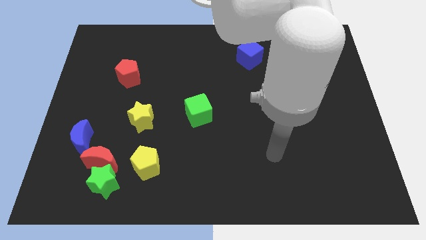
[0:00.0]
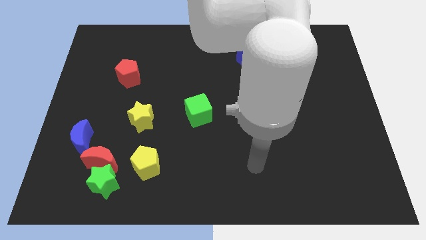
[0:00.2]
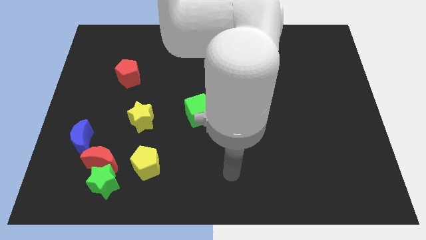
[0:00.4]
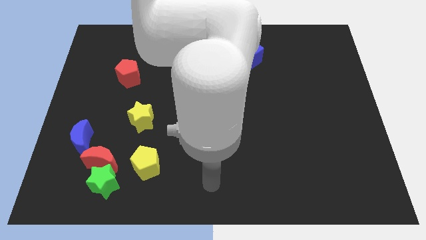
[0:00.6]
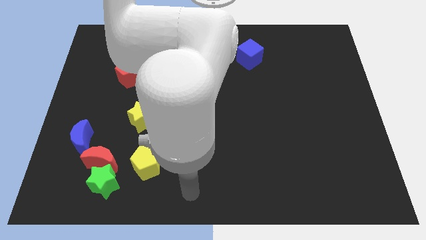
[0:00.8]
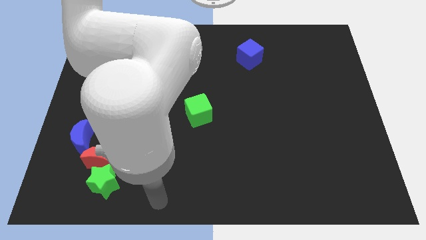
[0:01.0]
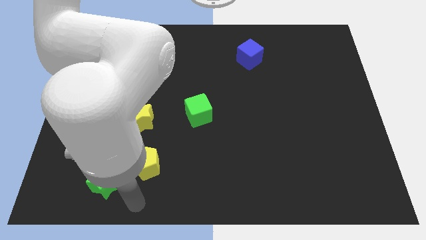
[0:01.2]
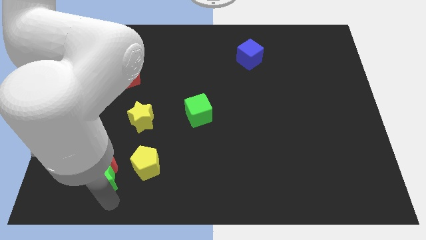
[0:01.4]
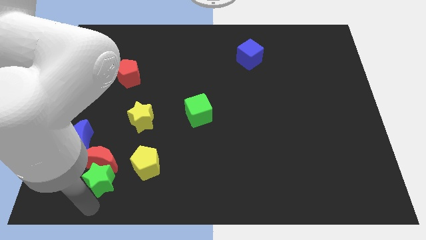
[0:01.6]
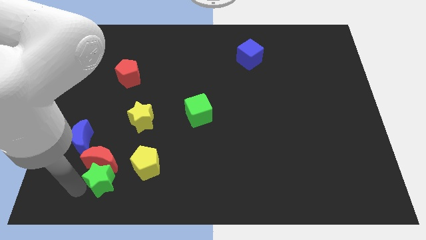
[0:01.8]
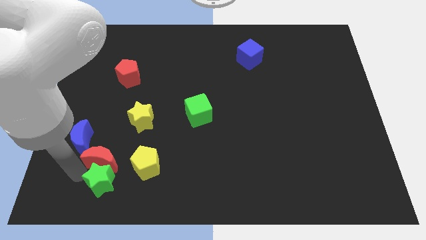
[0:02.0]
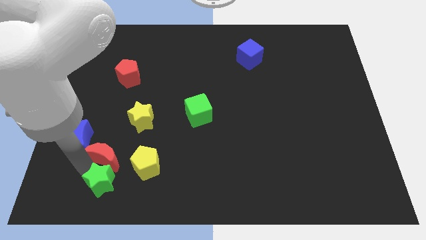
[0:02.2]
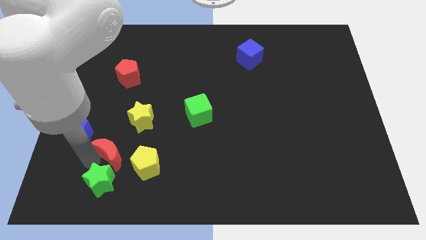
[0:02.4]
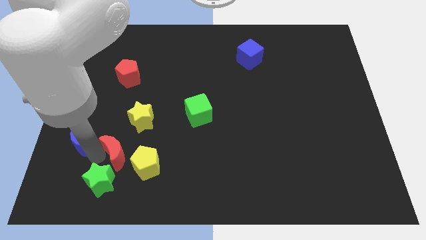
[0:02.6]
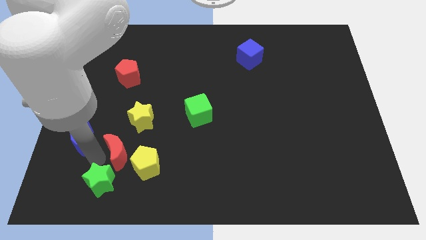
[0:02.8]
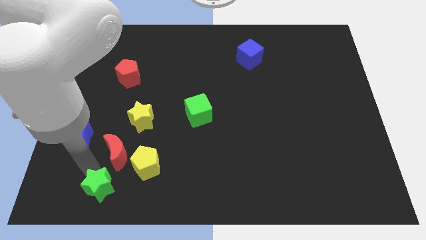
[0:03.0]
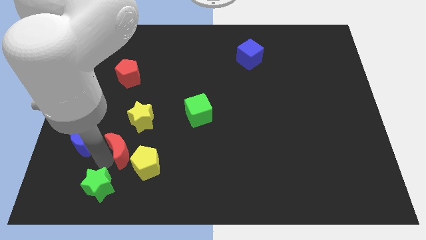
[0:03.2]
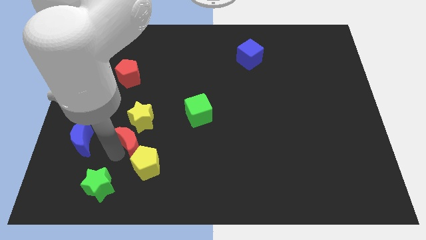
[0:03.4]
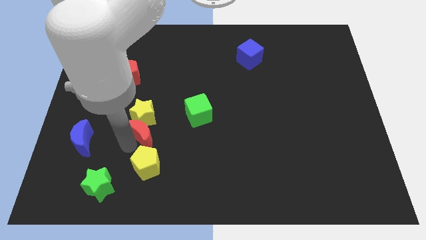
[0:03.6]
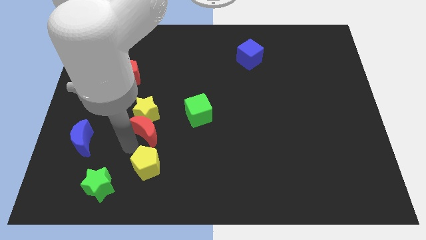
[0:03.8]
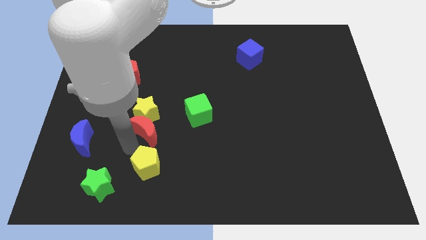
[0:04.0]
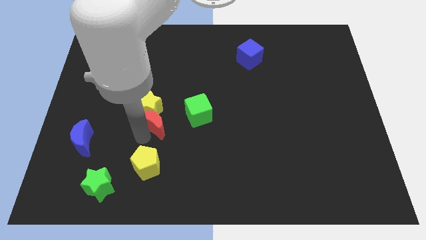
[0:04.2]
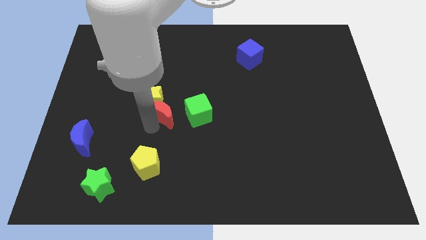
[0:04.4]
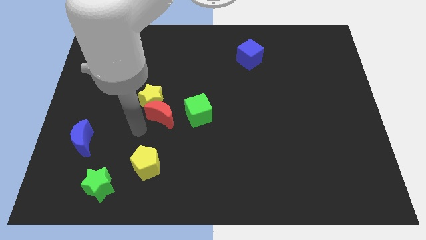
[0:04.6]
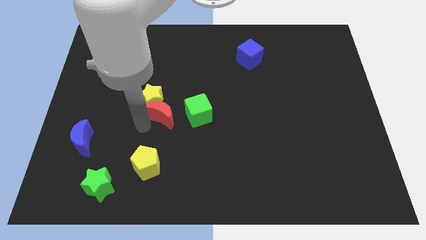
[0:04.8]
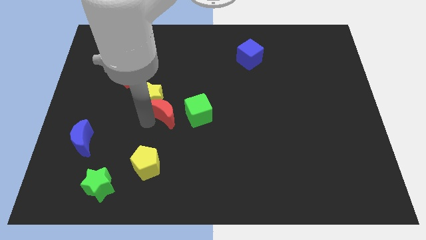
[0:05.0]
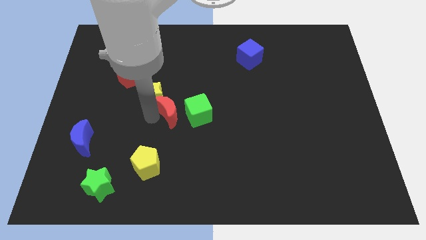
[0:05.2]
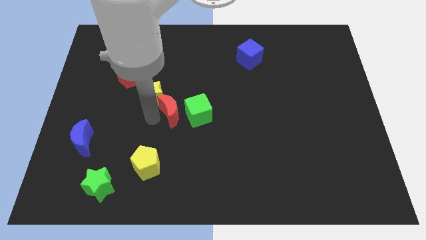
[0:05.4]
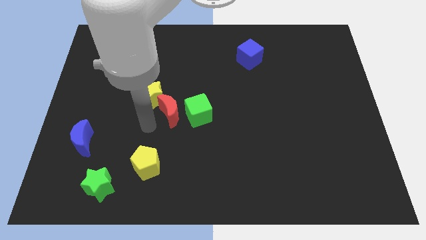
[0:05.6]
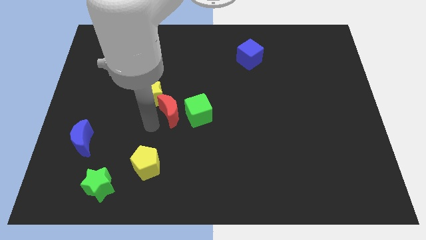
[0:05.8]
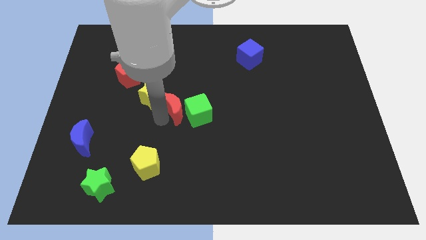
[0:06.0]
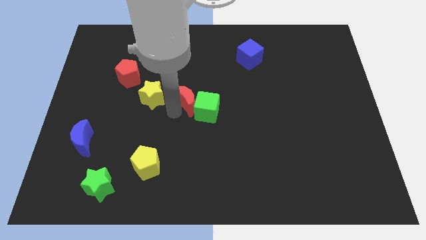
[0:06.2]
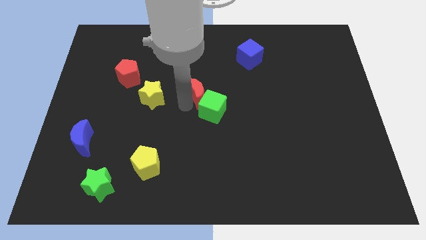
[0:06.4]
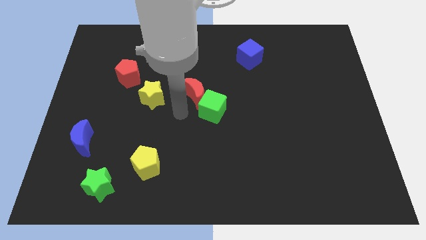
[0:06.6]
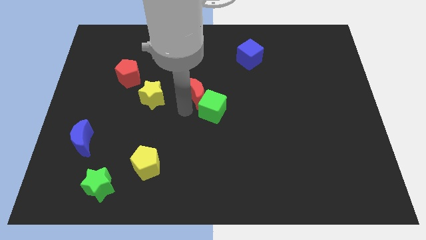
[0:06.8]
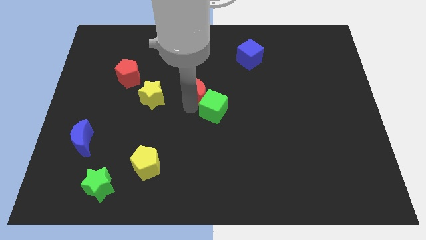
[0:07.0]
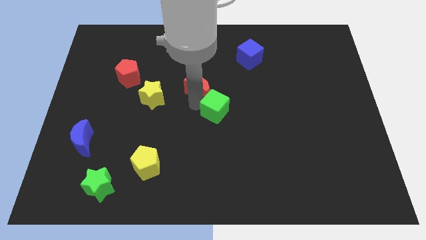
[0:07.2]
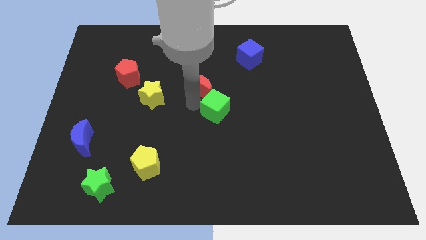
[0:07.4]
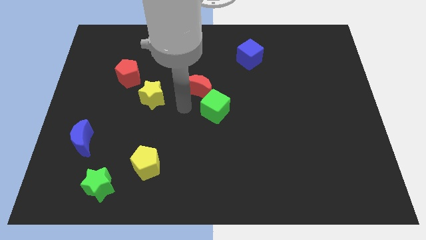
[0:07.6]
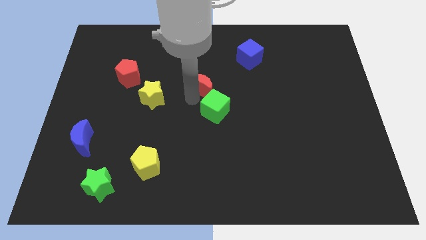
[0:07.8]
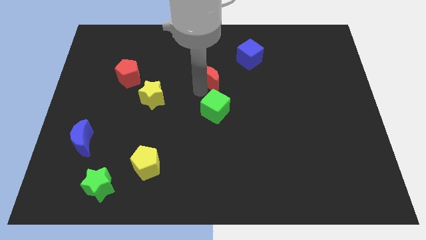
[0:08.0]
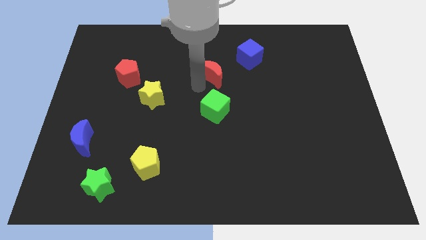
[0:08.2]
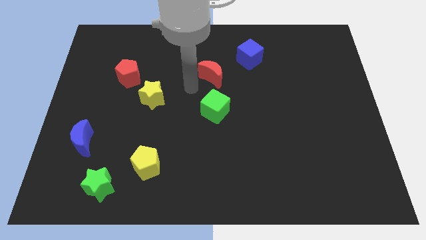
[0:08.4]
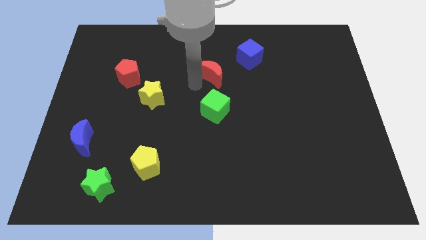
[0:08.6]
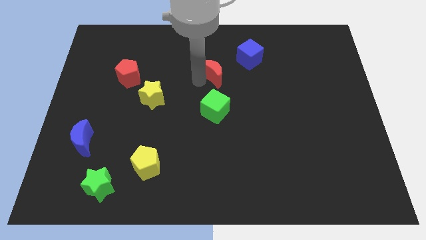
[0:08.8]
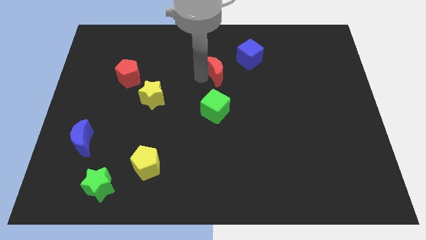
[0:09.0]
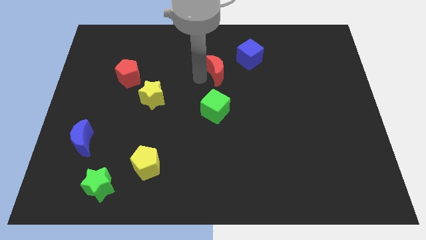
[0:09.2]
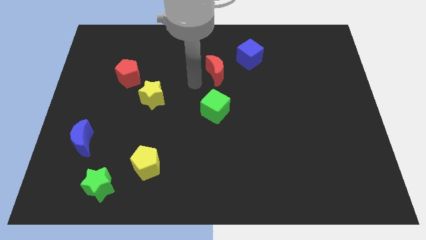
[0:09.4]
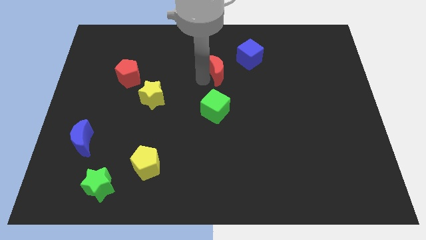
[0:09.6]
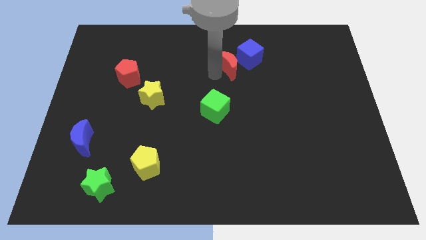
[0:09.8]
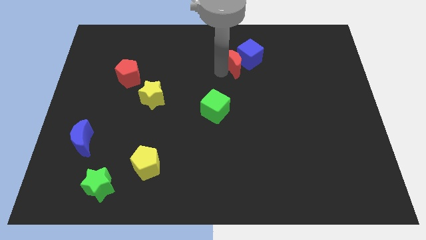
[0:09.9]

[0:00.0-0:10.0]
push the red moon next to the blue cube

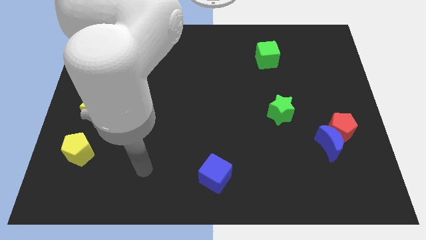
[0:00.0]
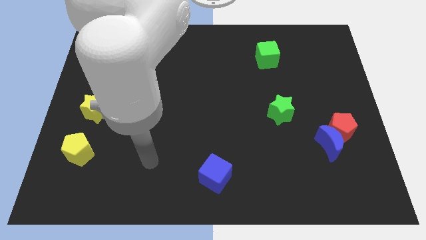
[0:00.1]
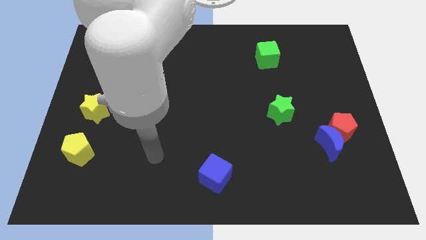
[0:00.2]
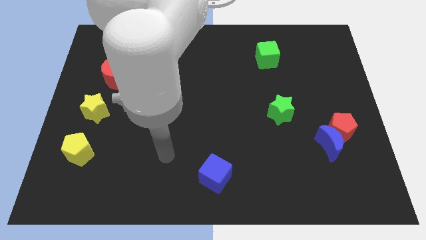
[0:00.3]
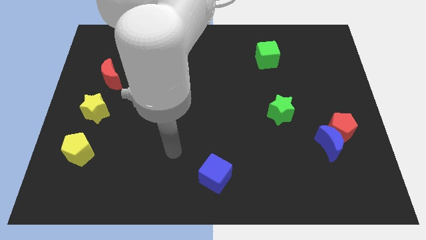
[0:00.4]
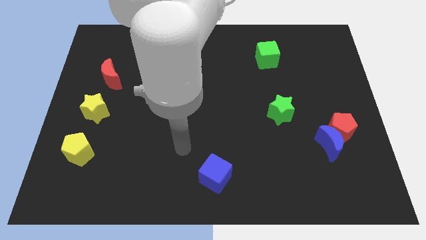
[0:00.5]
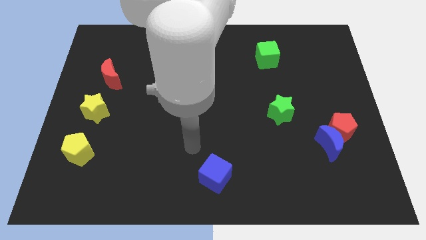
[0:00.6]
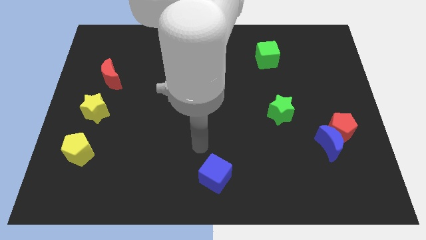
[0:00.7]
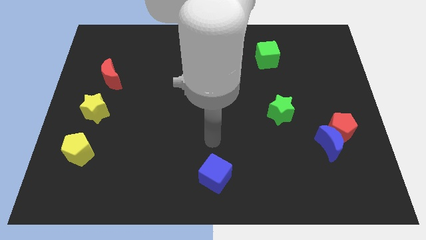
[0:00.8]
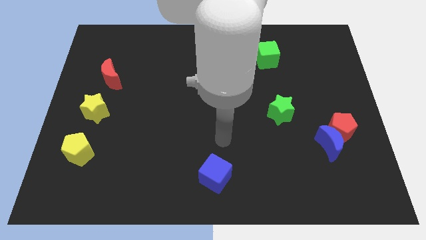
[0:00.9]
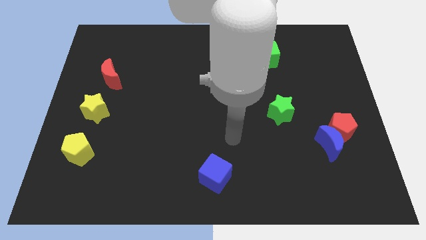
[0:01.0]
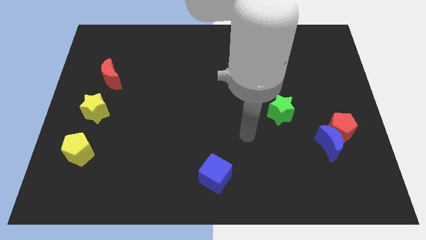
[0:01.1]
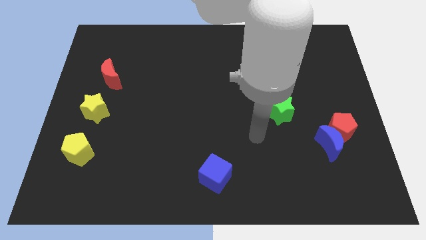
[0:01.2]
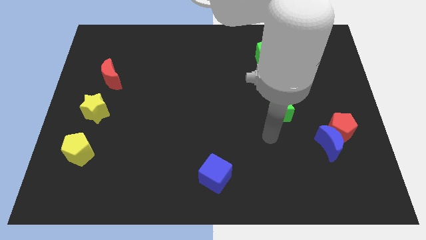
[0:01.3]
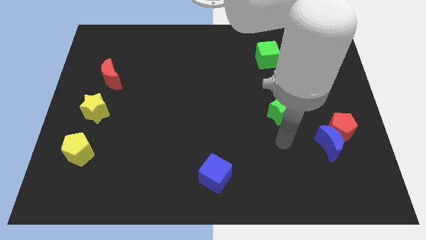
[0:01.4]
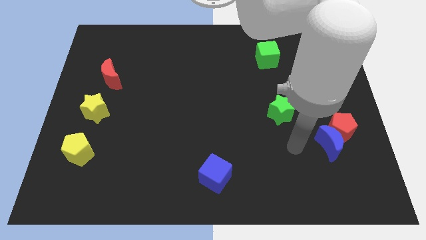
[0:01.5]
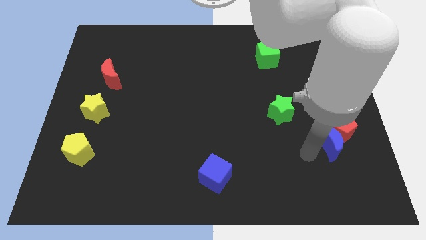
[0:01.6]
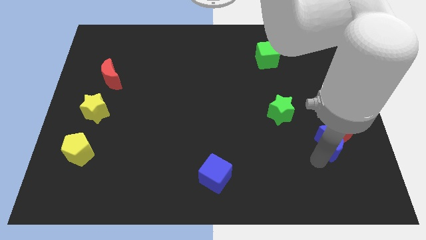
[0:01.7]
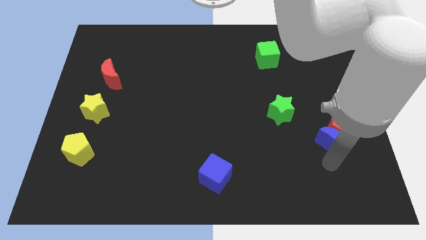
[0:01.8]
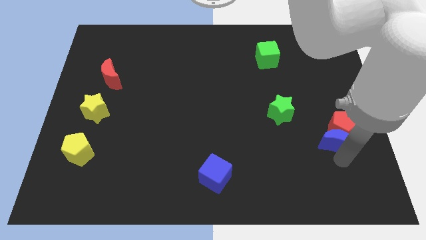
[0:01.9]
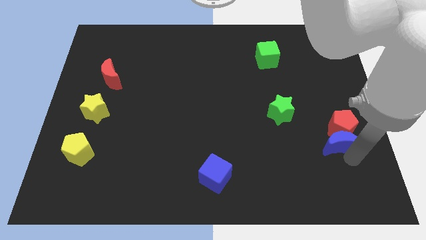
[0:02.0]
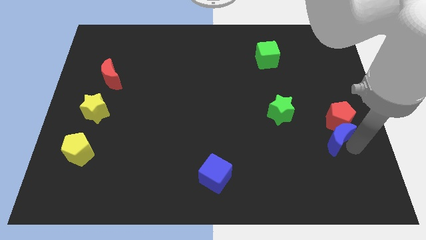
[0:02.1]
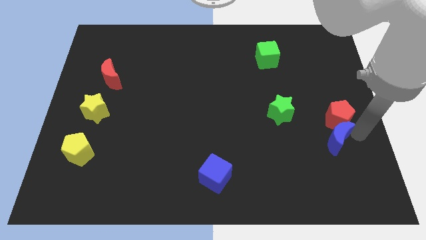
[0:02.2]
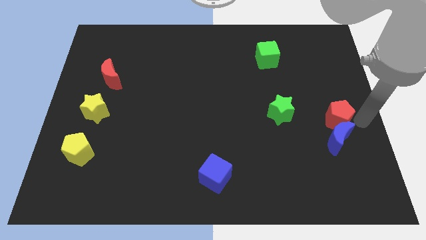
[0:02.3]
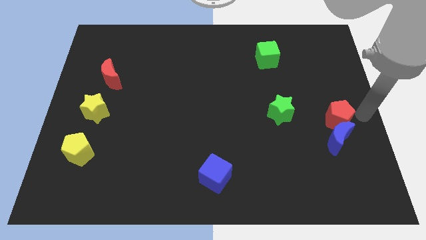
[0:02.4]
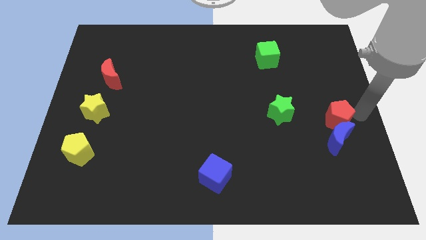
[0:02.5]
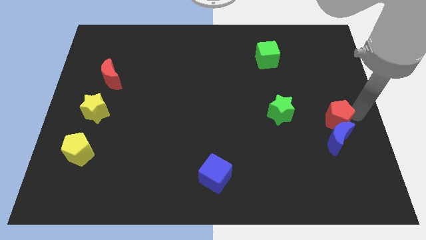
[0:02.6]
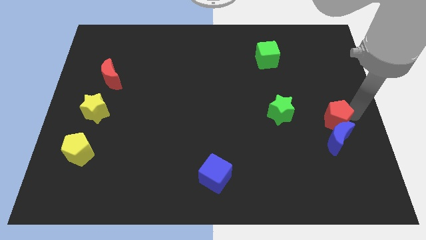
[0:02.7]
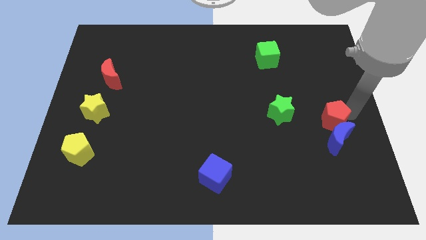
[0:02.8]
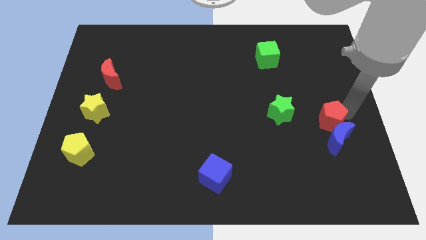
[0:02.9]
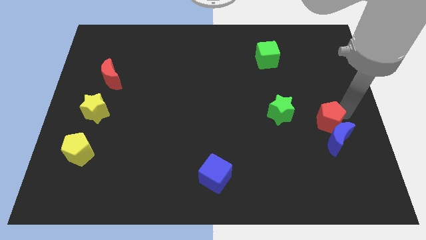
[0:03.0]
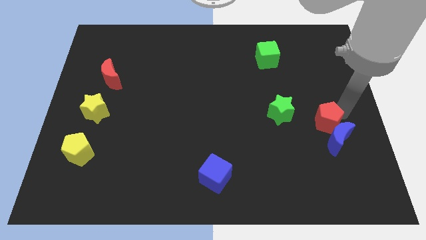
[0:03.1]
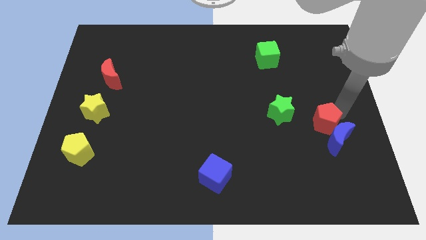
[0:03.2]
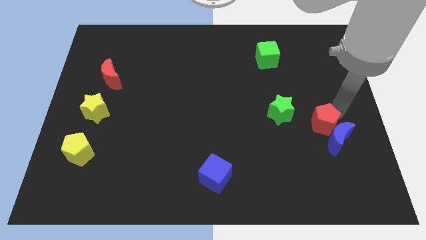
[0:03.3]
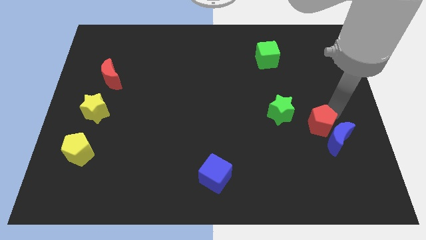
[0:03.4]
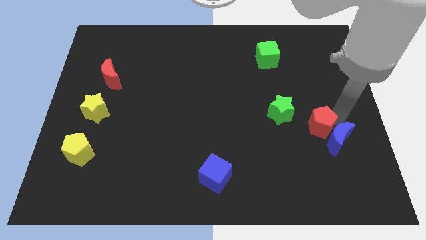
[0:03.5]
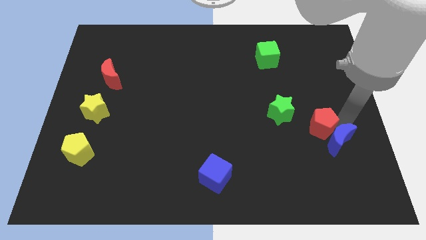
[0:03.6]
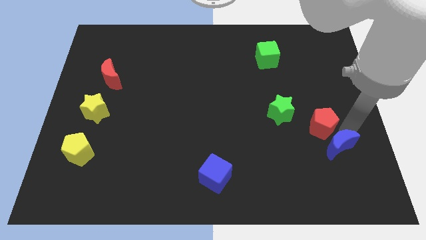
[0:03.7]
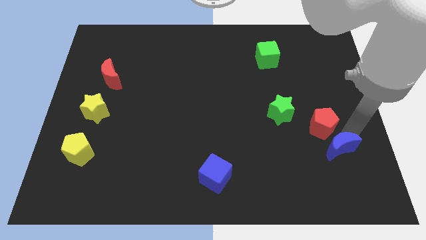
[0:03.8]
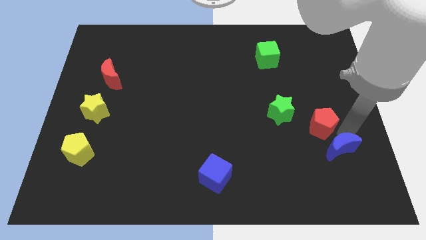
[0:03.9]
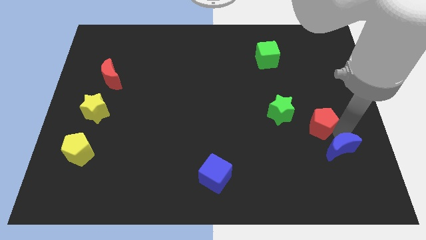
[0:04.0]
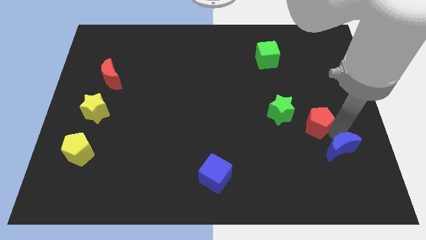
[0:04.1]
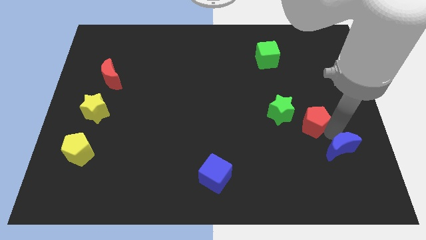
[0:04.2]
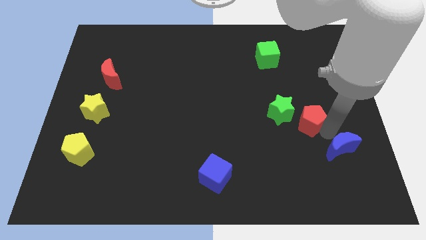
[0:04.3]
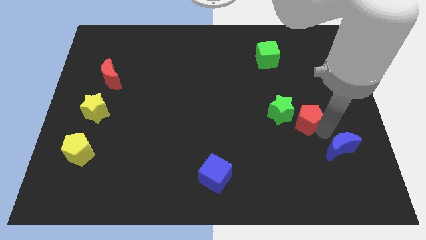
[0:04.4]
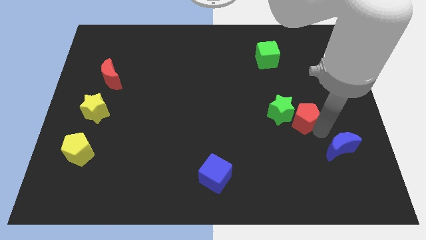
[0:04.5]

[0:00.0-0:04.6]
slide the red pentagon to the green star
